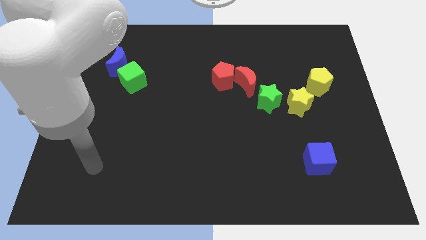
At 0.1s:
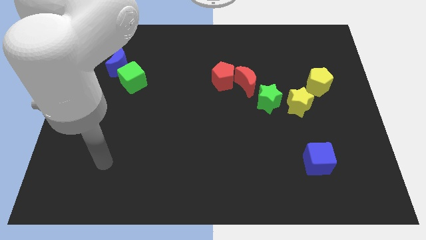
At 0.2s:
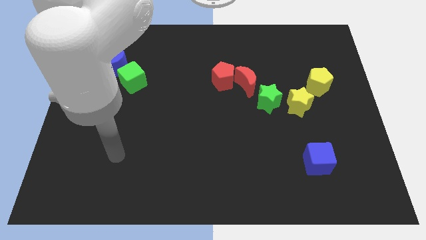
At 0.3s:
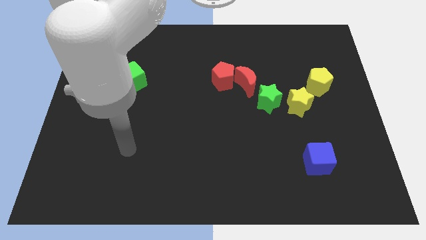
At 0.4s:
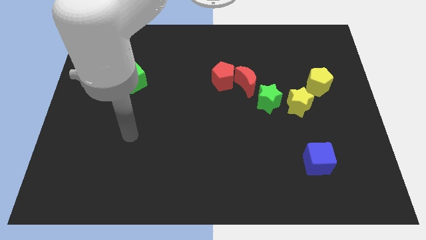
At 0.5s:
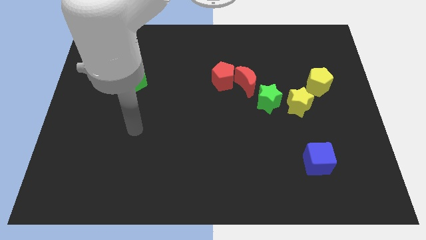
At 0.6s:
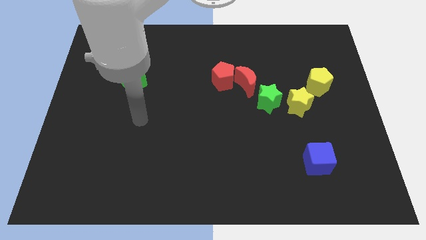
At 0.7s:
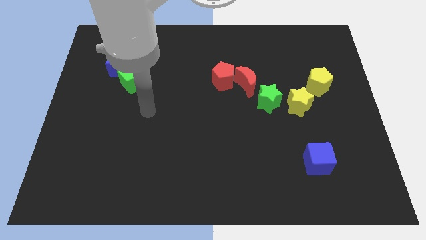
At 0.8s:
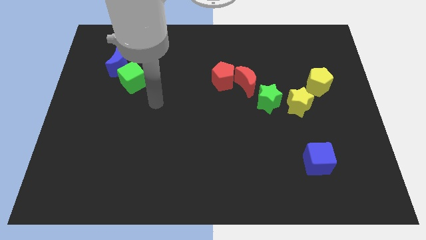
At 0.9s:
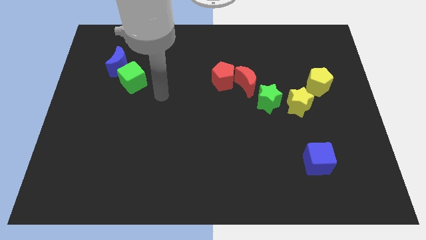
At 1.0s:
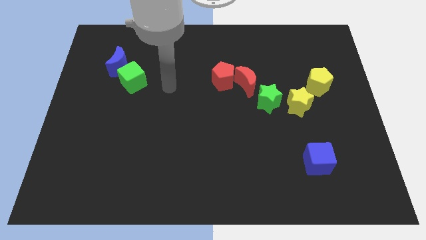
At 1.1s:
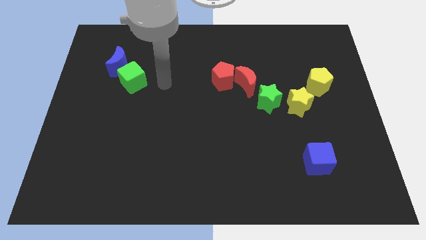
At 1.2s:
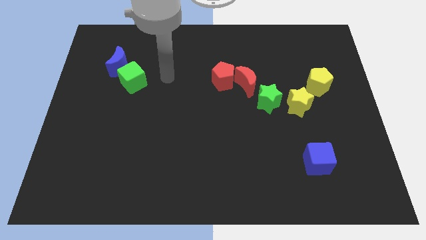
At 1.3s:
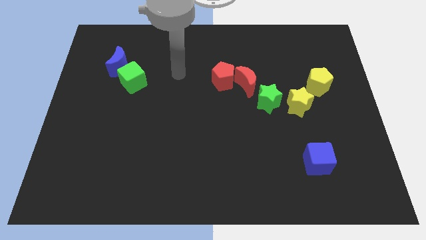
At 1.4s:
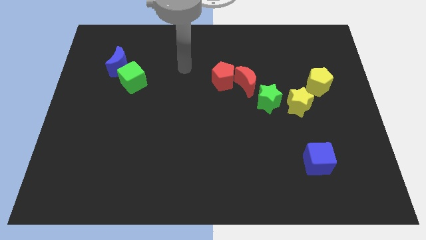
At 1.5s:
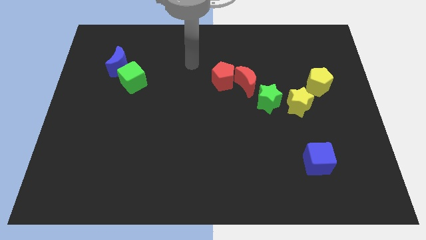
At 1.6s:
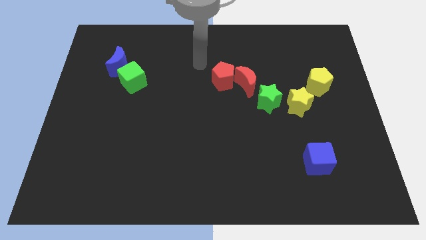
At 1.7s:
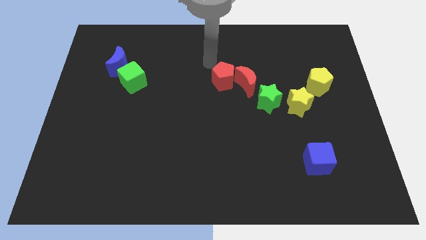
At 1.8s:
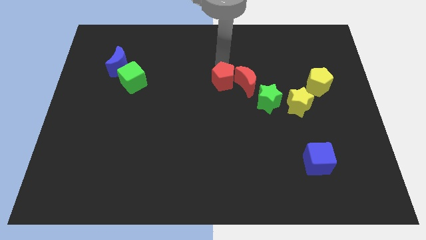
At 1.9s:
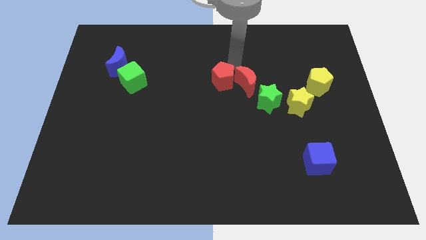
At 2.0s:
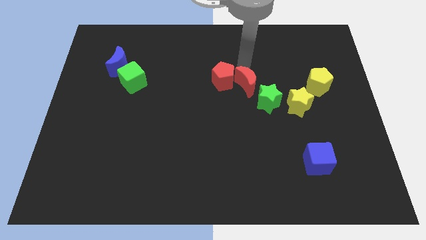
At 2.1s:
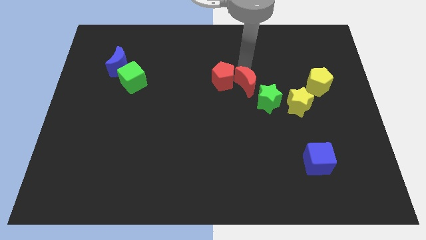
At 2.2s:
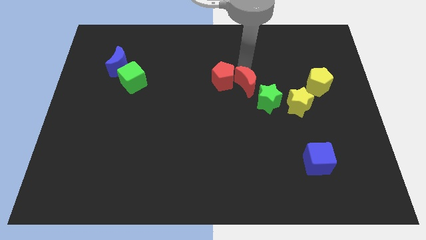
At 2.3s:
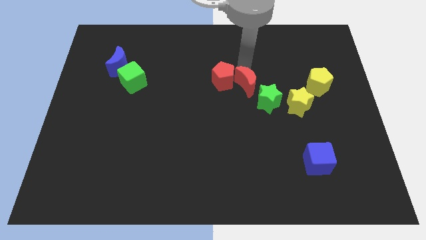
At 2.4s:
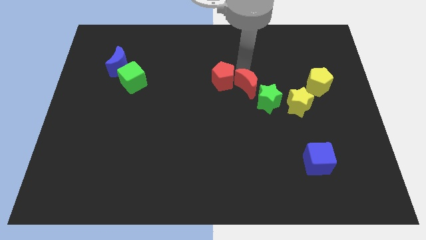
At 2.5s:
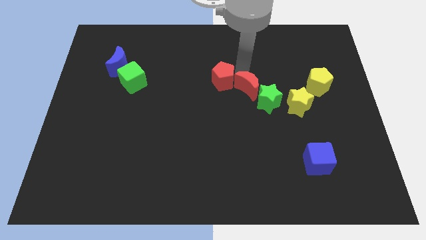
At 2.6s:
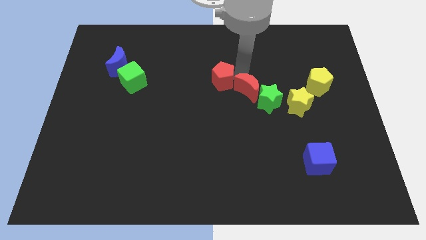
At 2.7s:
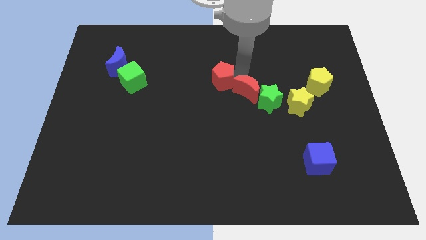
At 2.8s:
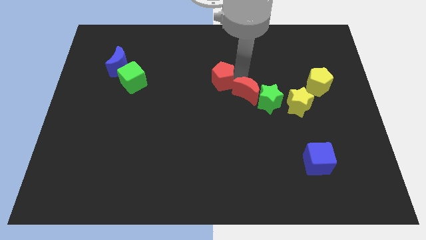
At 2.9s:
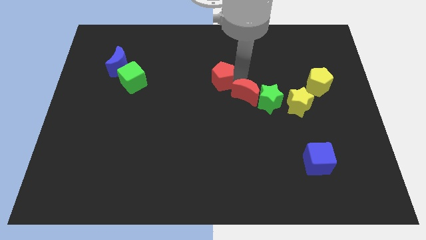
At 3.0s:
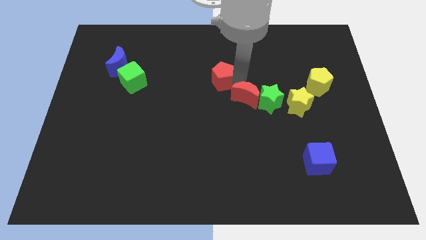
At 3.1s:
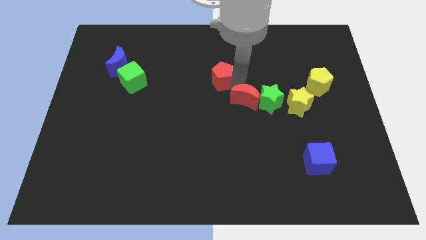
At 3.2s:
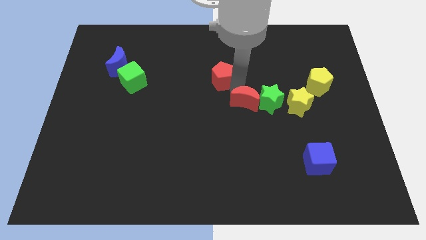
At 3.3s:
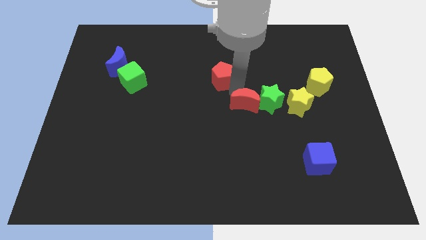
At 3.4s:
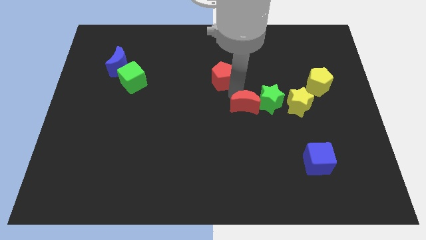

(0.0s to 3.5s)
push the red moon somewhat down

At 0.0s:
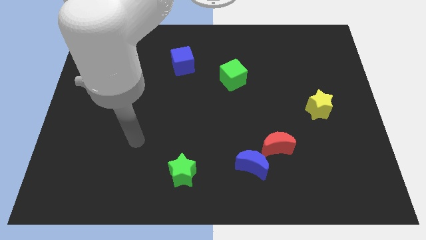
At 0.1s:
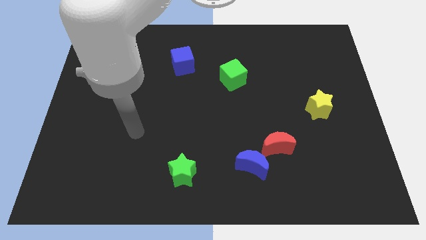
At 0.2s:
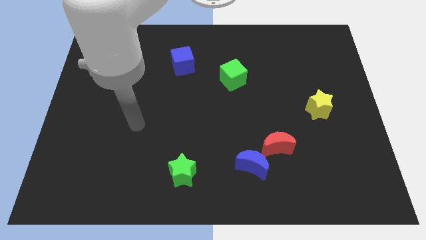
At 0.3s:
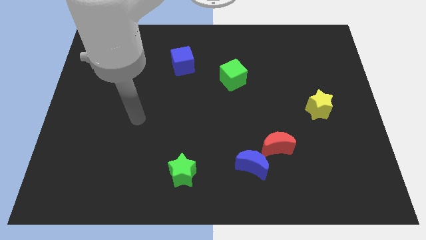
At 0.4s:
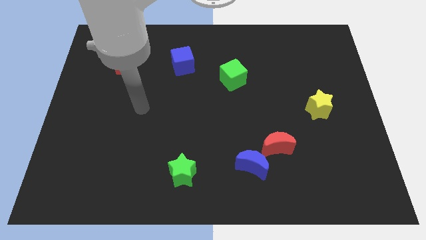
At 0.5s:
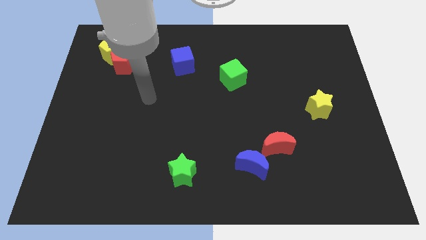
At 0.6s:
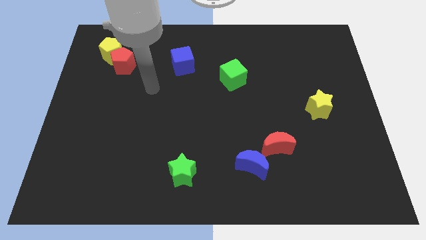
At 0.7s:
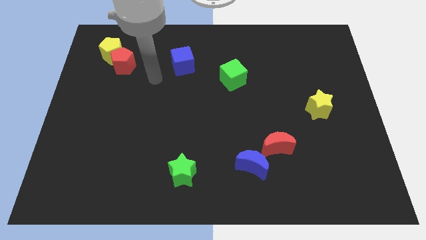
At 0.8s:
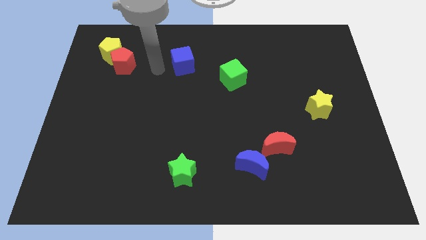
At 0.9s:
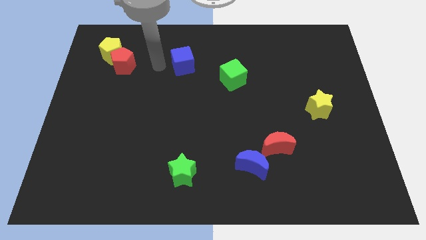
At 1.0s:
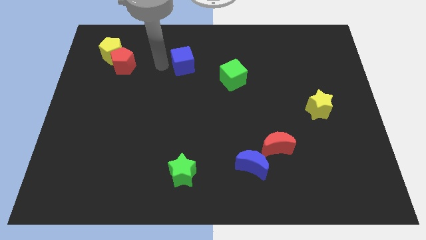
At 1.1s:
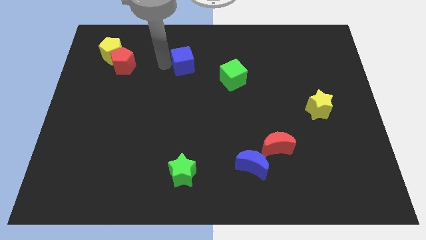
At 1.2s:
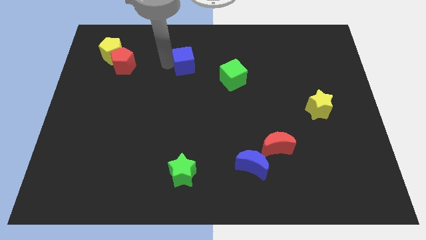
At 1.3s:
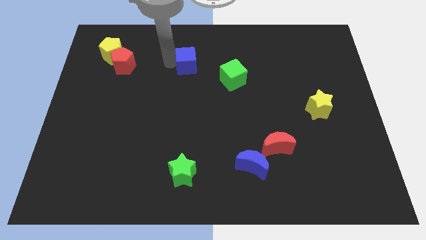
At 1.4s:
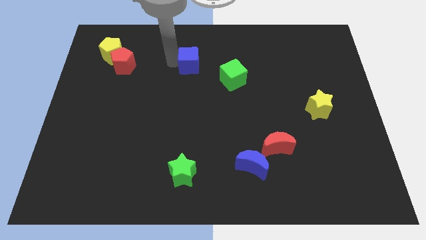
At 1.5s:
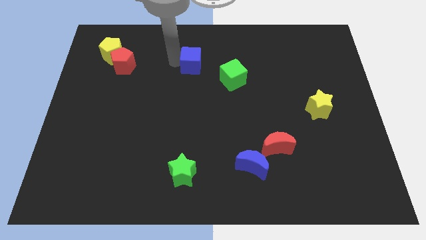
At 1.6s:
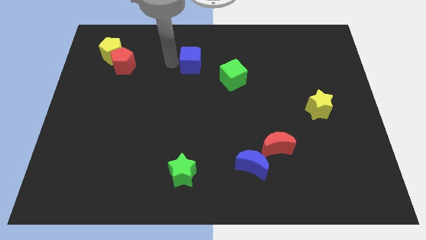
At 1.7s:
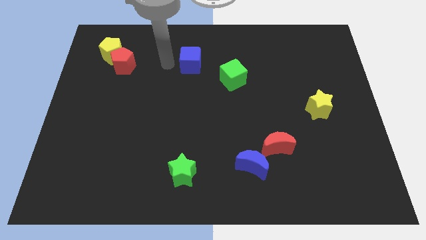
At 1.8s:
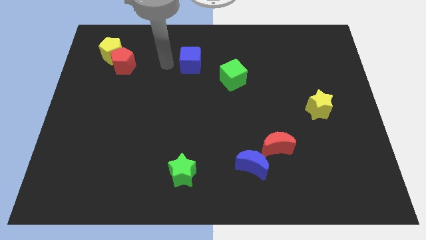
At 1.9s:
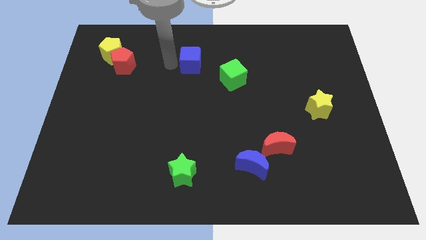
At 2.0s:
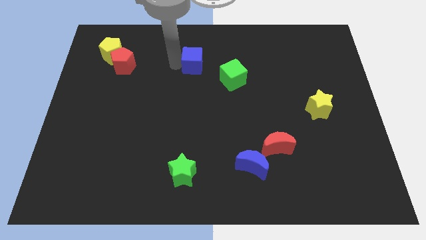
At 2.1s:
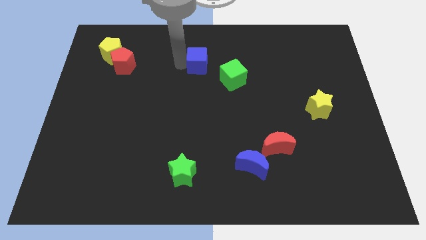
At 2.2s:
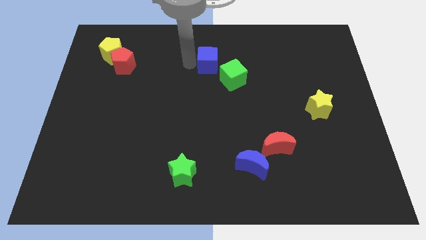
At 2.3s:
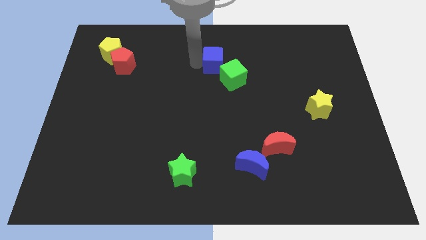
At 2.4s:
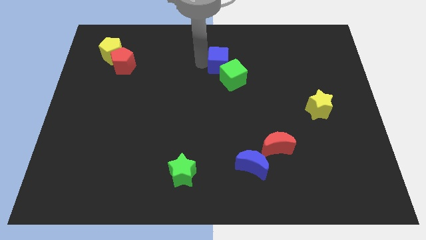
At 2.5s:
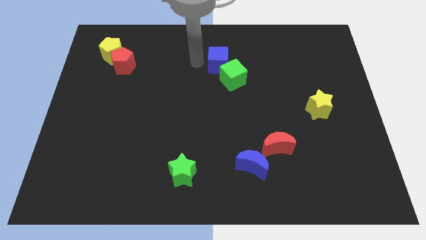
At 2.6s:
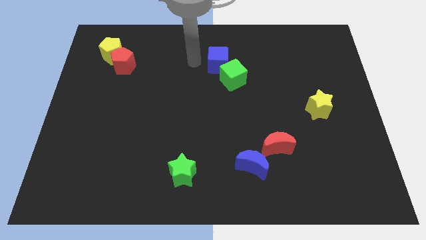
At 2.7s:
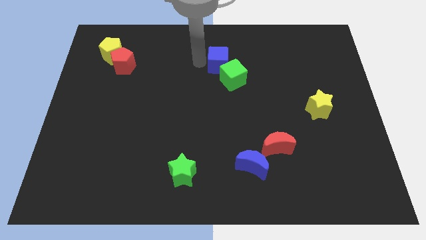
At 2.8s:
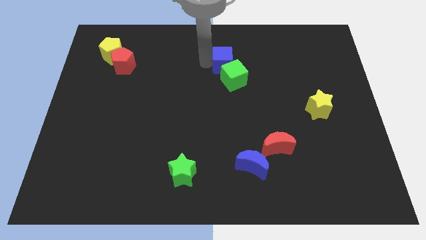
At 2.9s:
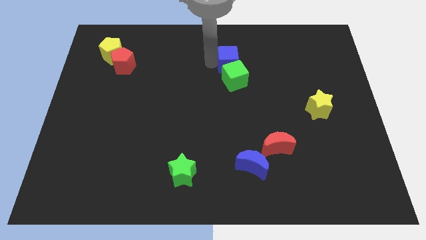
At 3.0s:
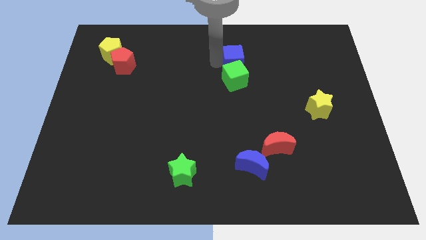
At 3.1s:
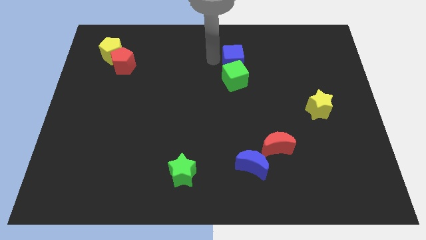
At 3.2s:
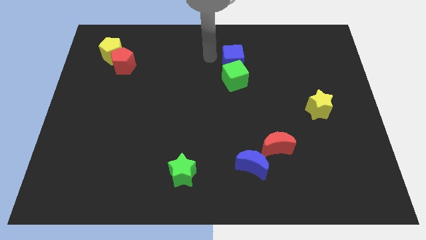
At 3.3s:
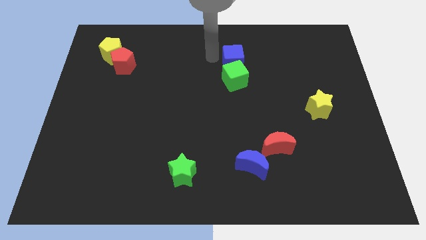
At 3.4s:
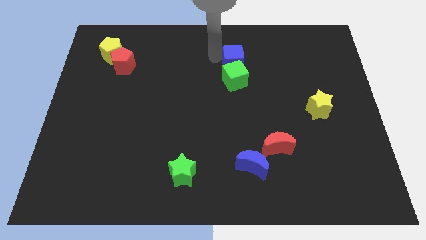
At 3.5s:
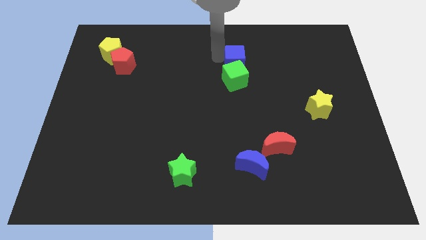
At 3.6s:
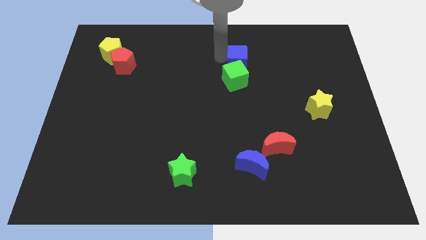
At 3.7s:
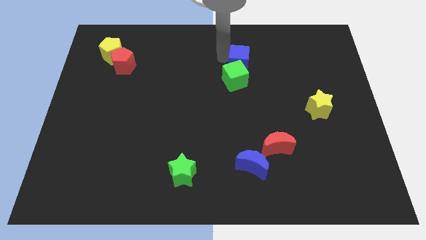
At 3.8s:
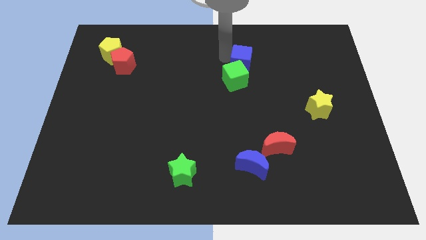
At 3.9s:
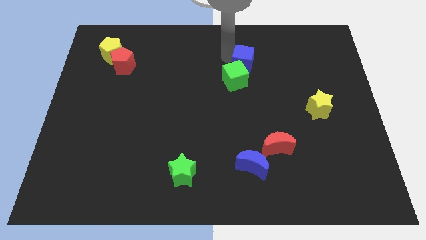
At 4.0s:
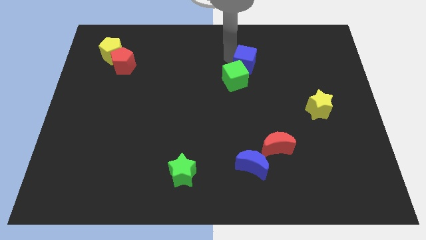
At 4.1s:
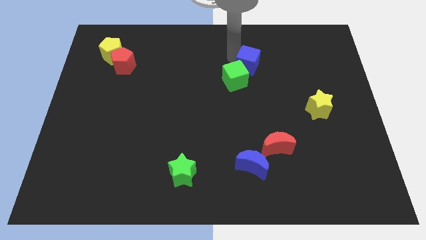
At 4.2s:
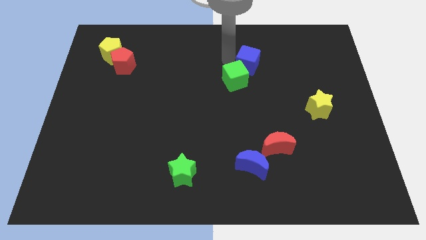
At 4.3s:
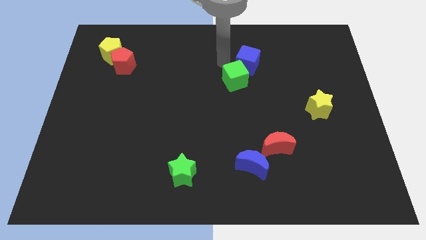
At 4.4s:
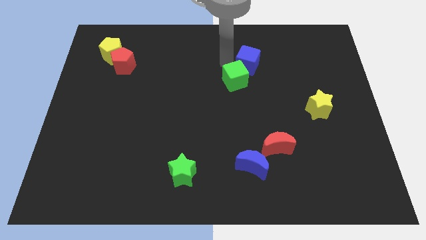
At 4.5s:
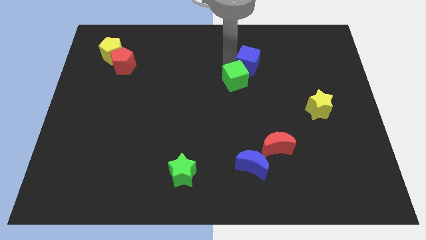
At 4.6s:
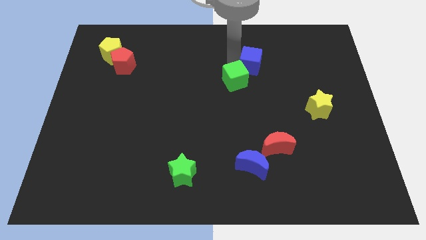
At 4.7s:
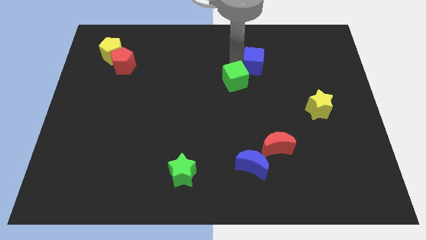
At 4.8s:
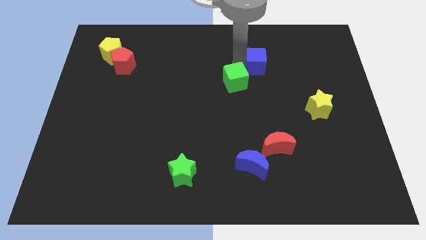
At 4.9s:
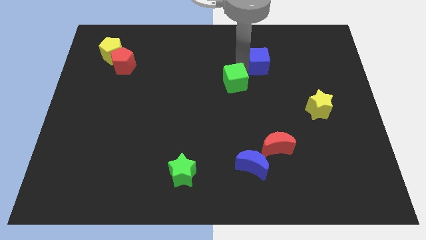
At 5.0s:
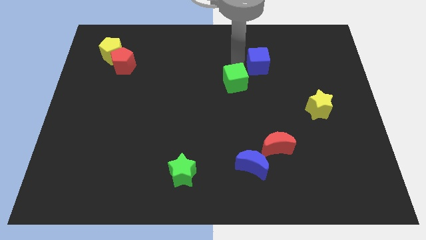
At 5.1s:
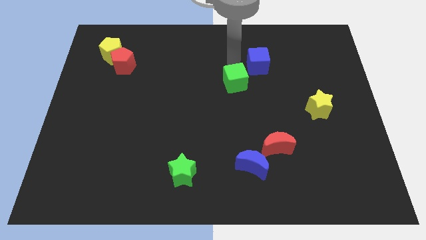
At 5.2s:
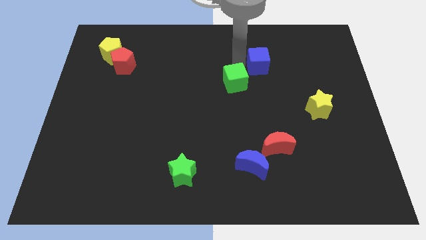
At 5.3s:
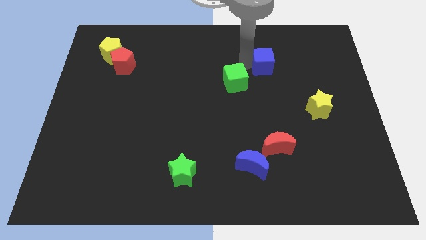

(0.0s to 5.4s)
push the blue cube right
